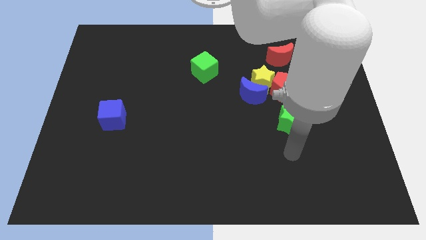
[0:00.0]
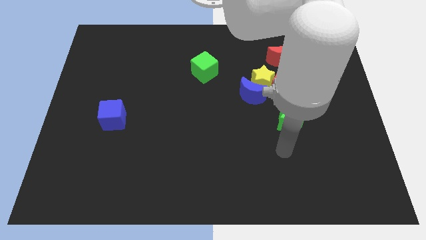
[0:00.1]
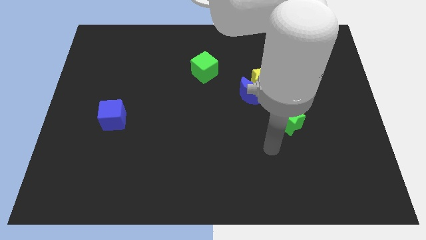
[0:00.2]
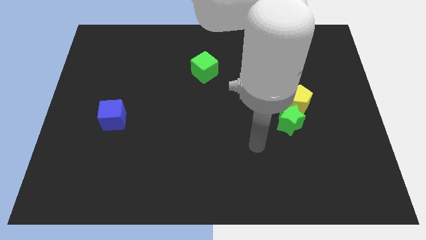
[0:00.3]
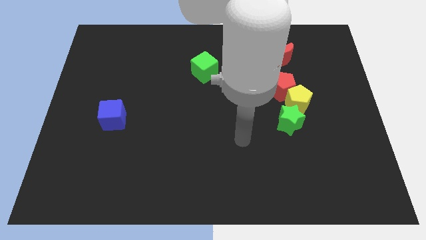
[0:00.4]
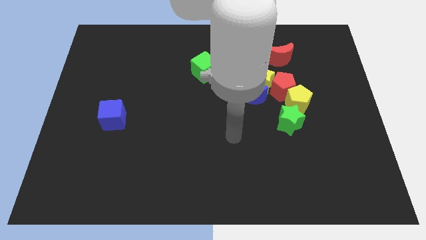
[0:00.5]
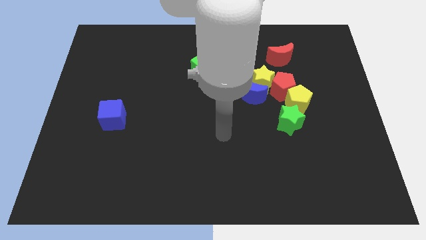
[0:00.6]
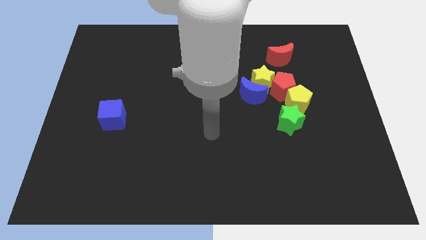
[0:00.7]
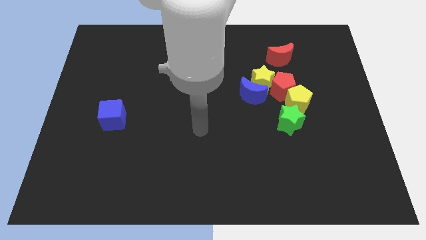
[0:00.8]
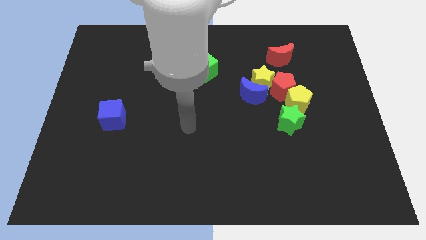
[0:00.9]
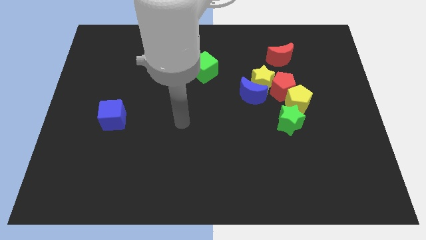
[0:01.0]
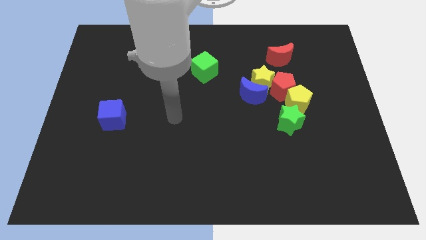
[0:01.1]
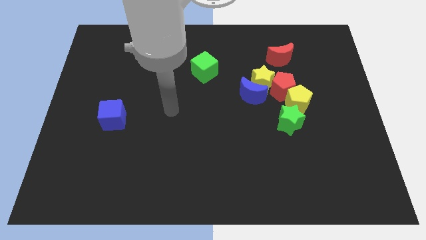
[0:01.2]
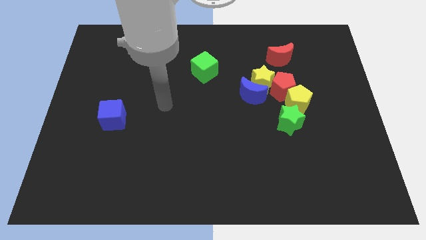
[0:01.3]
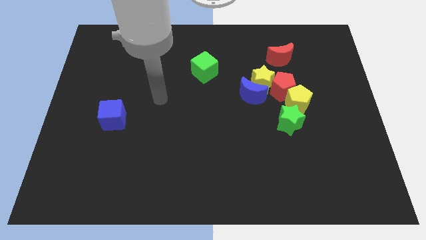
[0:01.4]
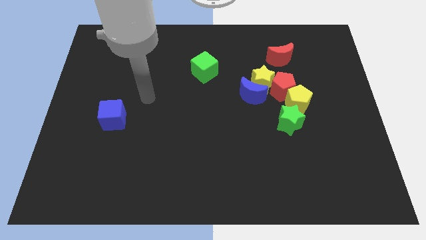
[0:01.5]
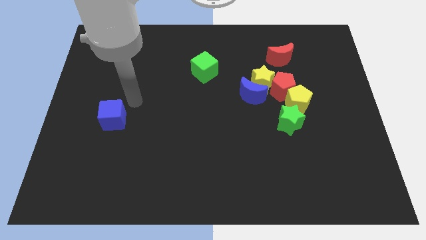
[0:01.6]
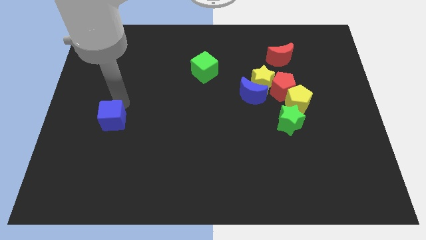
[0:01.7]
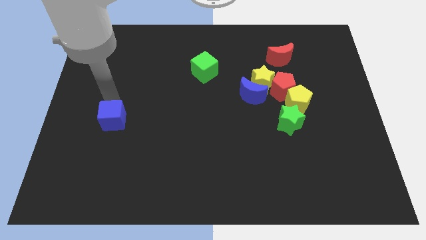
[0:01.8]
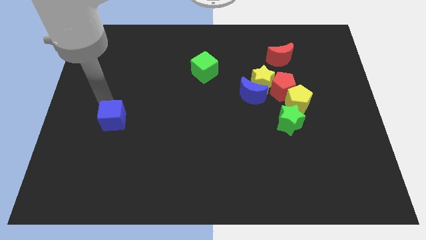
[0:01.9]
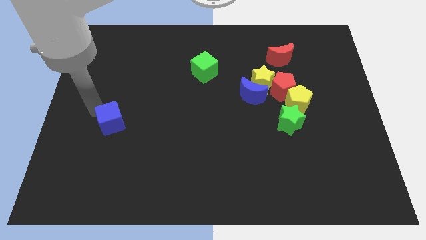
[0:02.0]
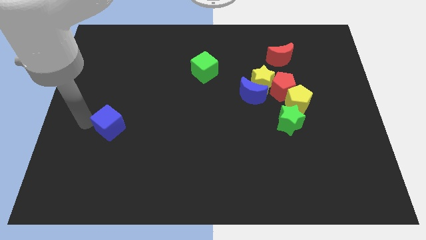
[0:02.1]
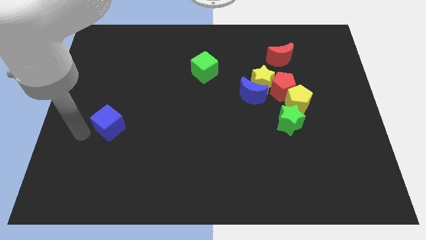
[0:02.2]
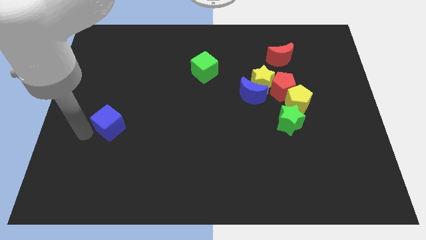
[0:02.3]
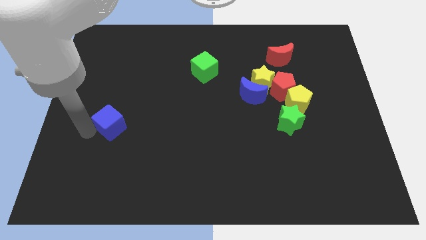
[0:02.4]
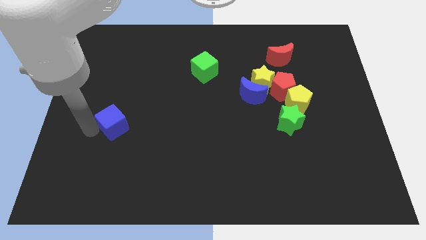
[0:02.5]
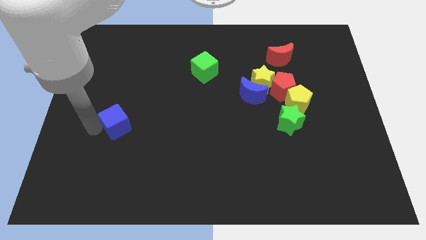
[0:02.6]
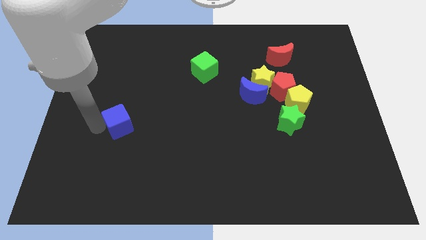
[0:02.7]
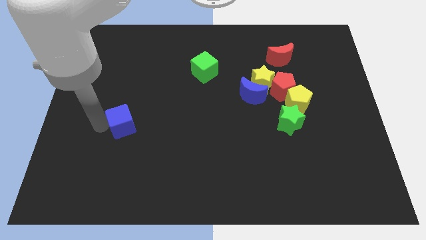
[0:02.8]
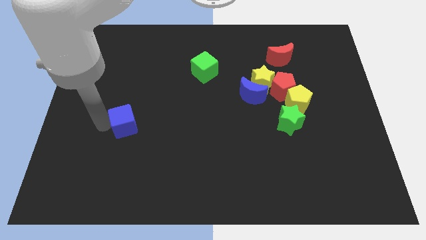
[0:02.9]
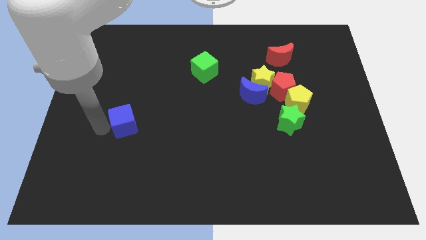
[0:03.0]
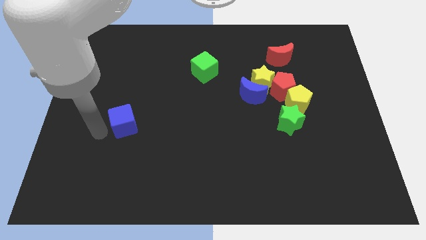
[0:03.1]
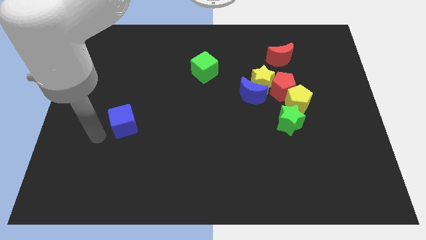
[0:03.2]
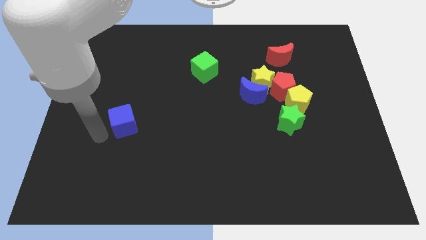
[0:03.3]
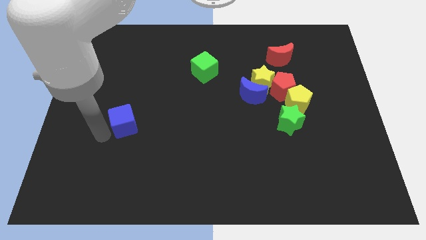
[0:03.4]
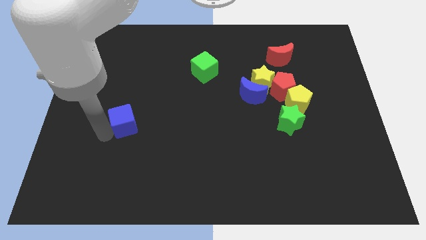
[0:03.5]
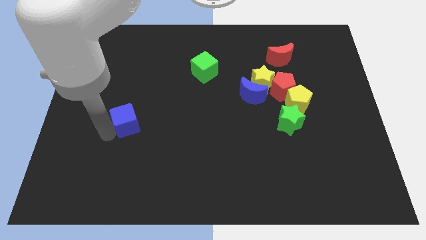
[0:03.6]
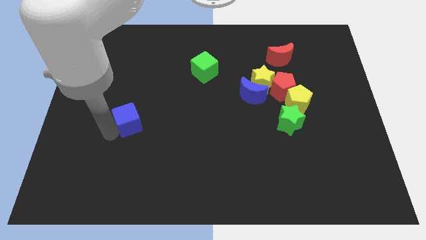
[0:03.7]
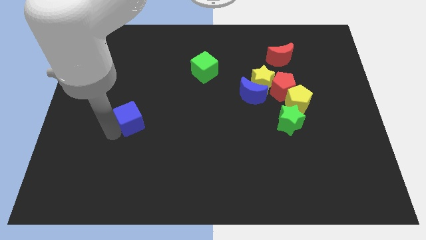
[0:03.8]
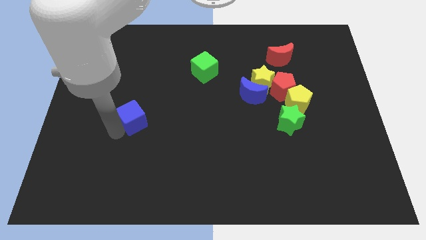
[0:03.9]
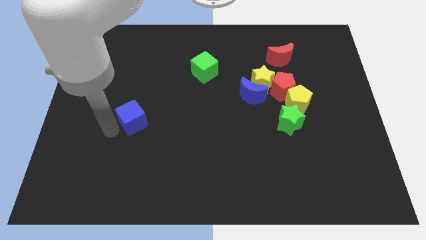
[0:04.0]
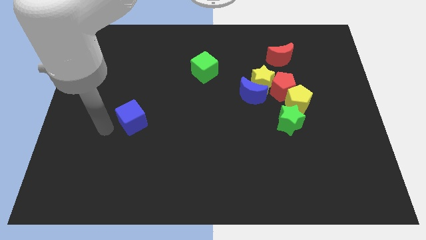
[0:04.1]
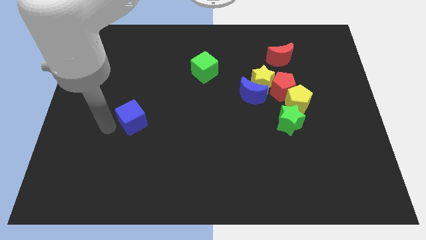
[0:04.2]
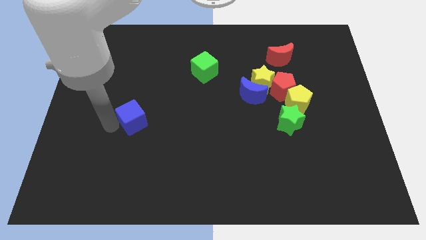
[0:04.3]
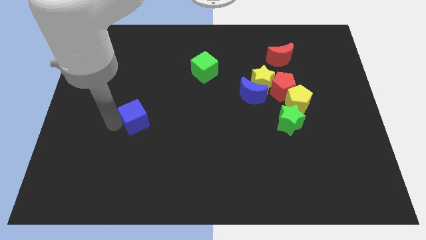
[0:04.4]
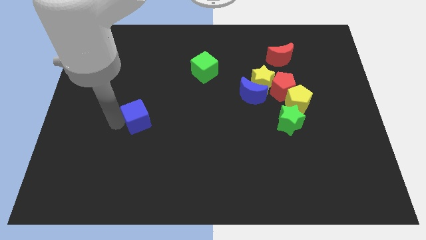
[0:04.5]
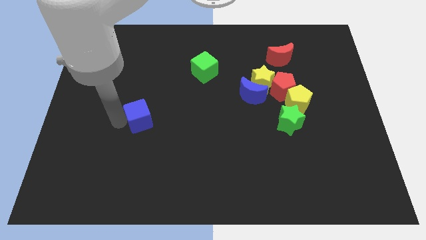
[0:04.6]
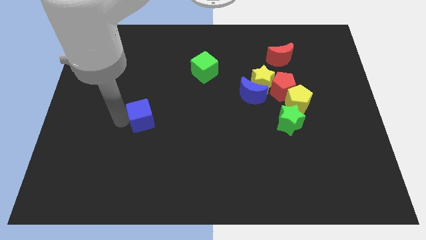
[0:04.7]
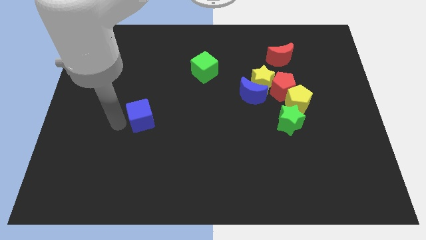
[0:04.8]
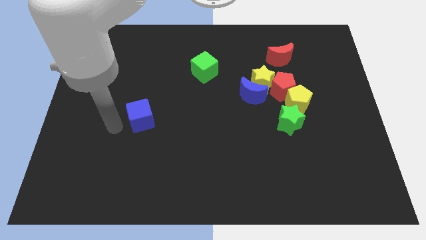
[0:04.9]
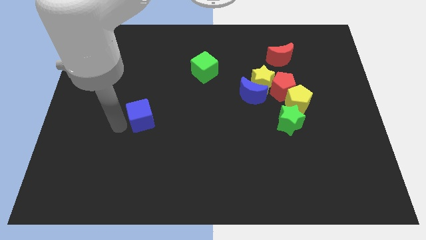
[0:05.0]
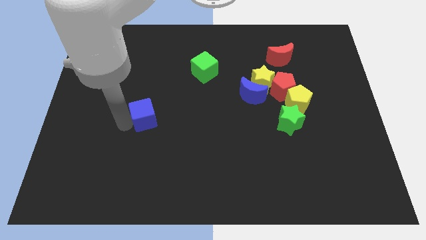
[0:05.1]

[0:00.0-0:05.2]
push the blue cube a bit to the right

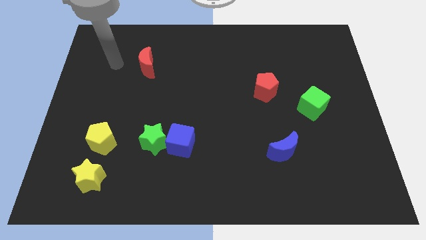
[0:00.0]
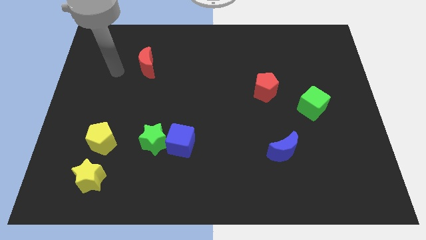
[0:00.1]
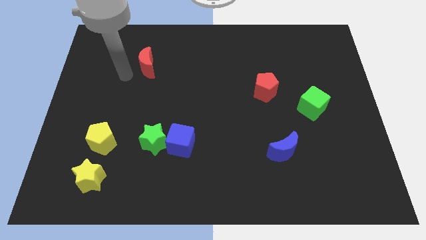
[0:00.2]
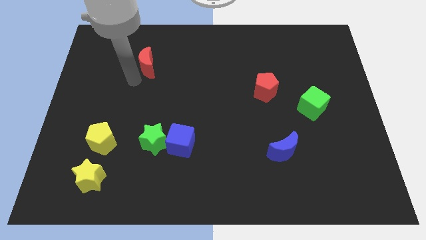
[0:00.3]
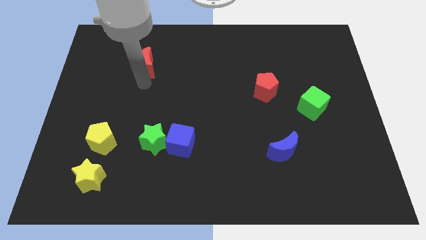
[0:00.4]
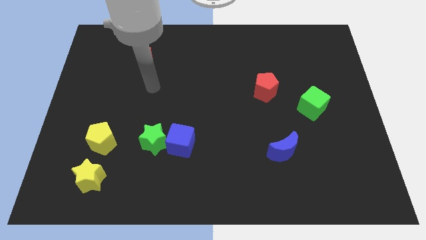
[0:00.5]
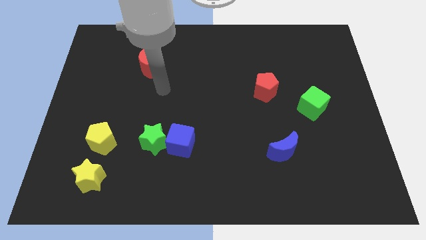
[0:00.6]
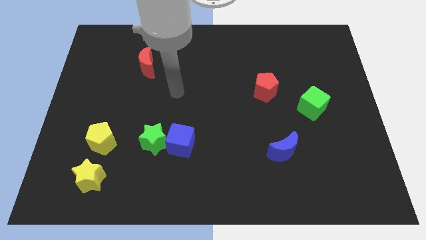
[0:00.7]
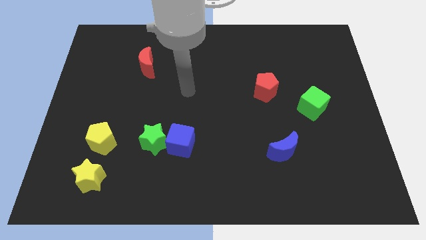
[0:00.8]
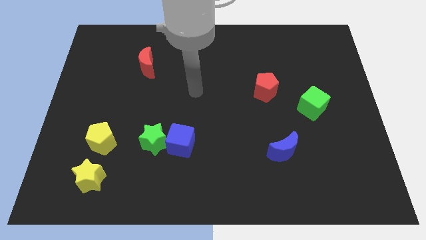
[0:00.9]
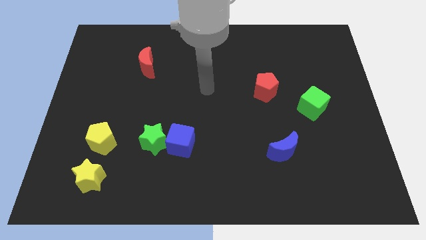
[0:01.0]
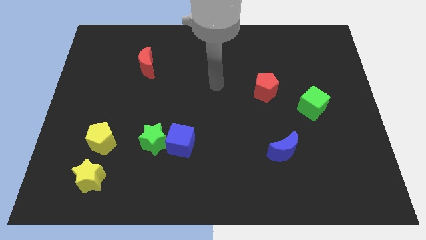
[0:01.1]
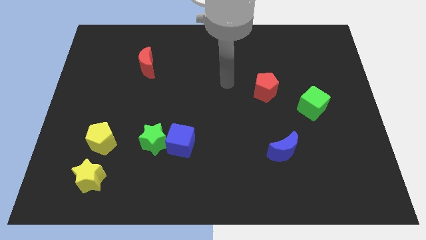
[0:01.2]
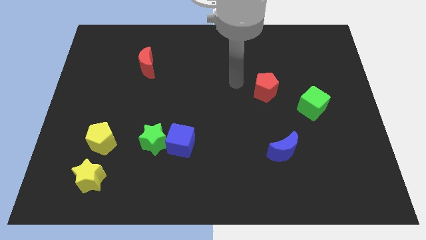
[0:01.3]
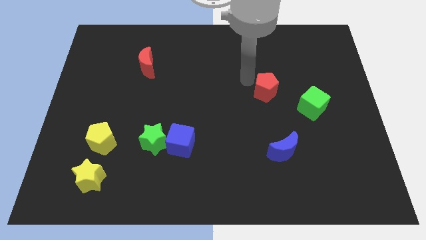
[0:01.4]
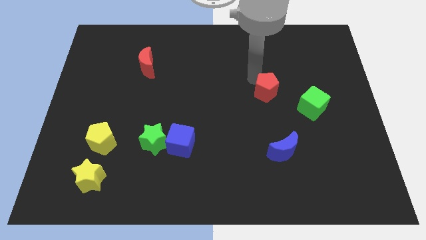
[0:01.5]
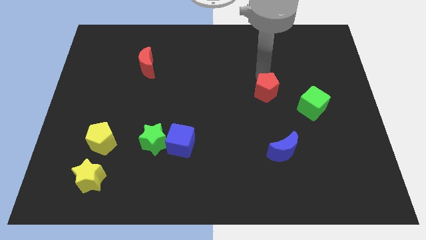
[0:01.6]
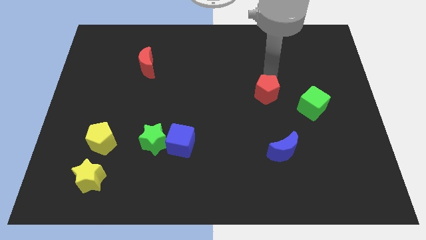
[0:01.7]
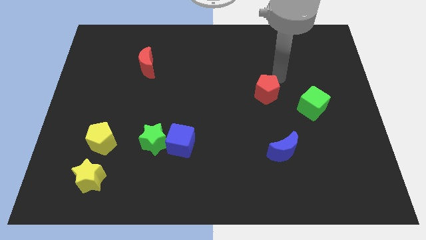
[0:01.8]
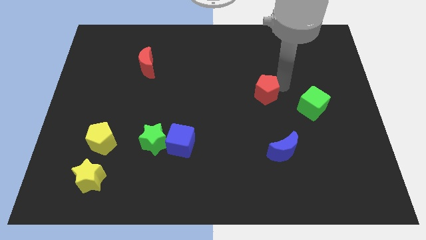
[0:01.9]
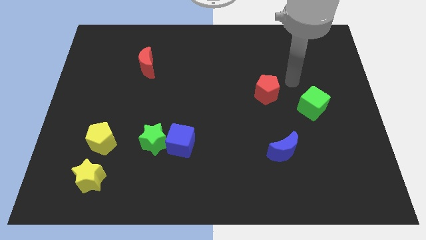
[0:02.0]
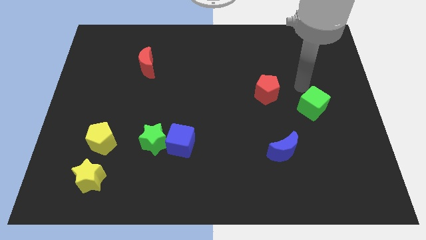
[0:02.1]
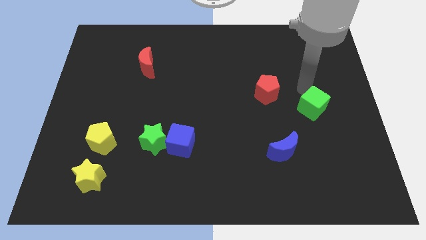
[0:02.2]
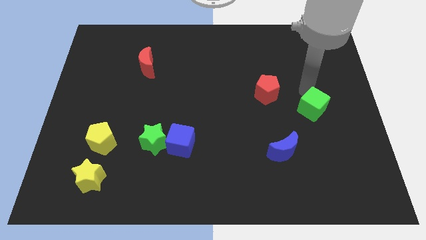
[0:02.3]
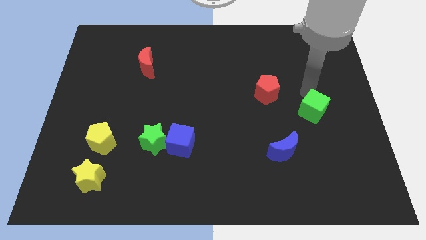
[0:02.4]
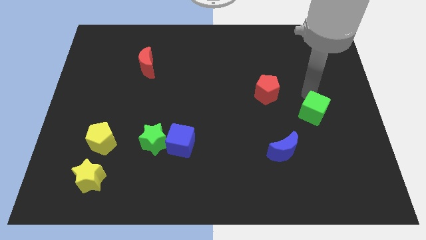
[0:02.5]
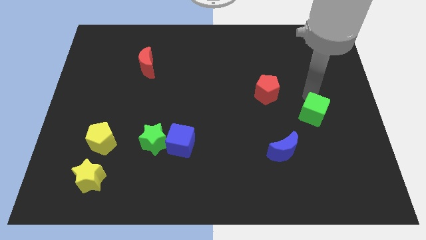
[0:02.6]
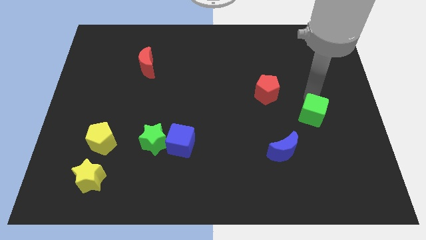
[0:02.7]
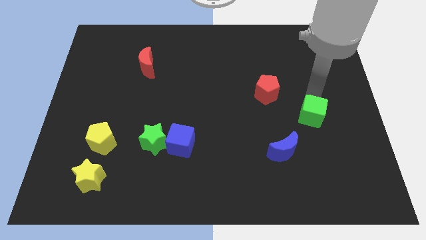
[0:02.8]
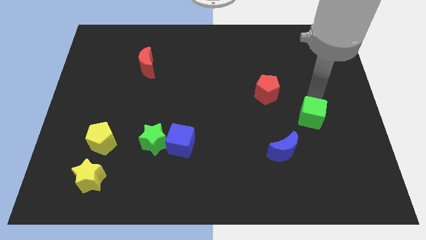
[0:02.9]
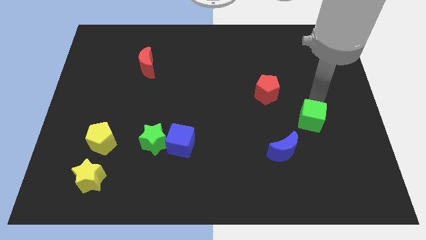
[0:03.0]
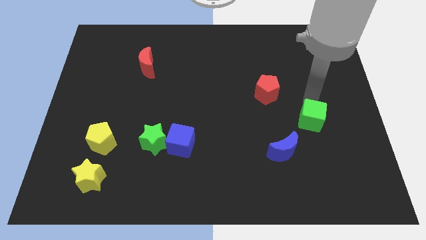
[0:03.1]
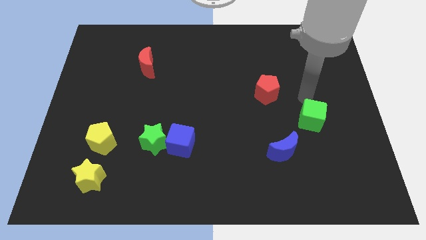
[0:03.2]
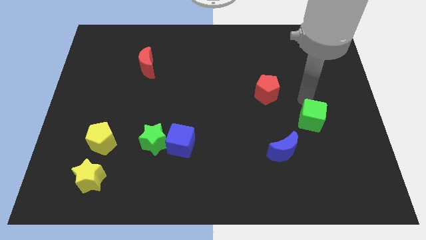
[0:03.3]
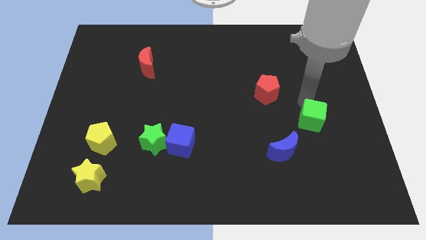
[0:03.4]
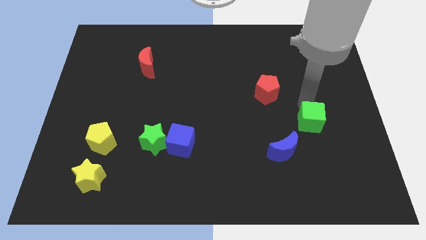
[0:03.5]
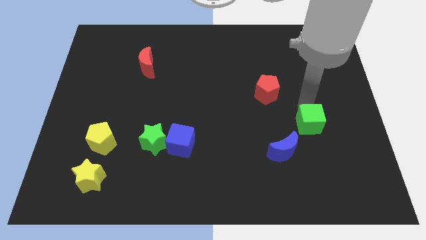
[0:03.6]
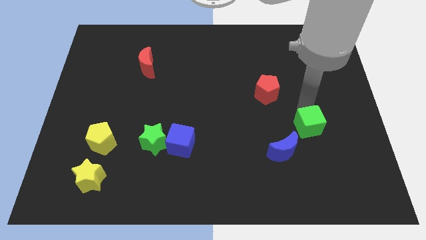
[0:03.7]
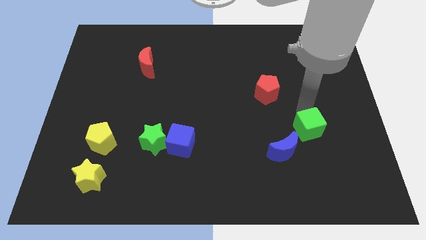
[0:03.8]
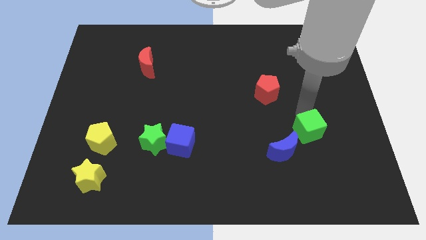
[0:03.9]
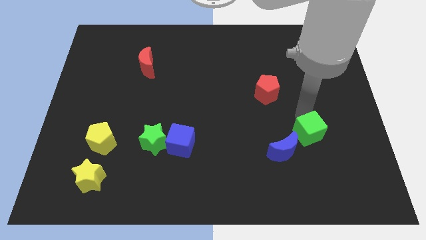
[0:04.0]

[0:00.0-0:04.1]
move the green cube down a little
